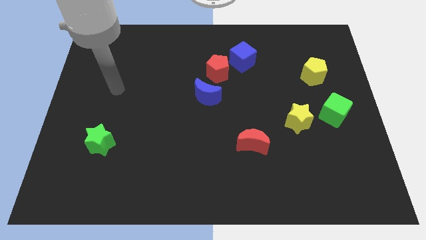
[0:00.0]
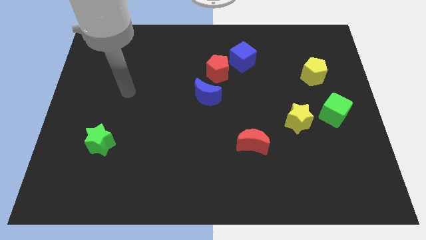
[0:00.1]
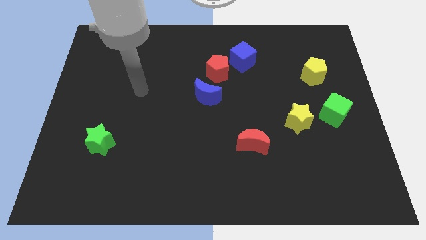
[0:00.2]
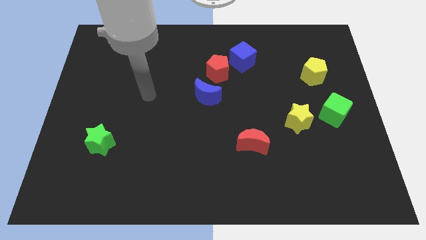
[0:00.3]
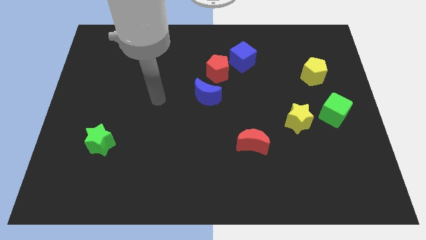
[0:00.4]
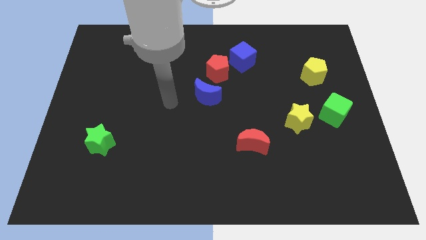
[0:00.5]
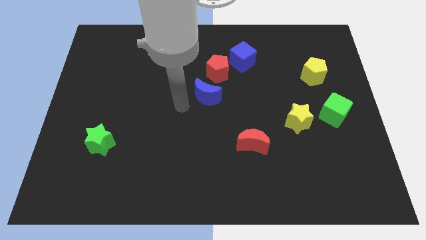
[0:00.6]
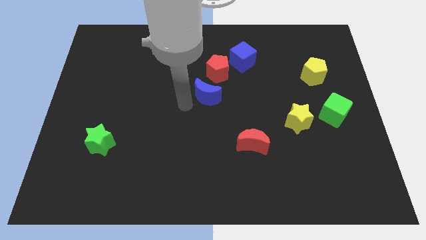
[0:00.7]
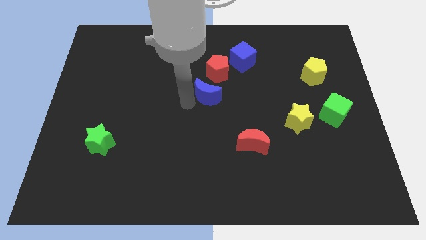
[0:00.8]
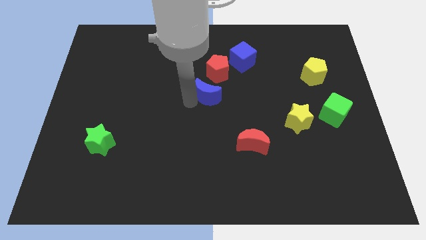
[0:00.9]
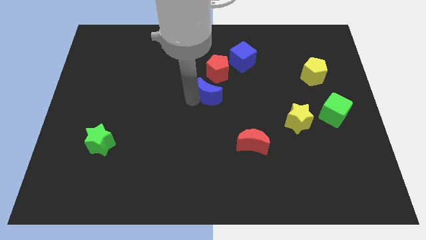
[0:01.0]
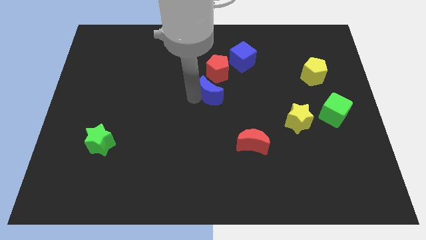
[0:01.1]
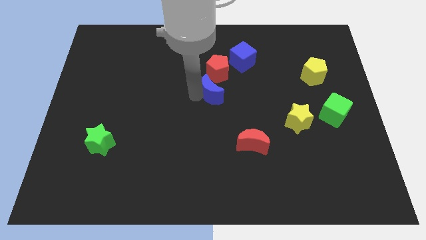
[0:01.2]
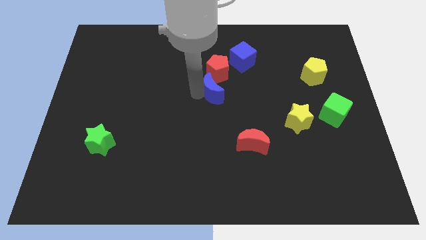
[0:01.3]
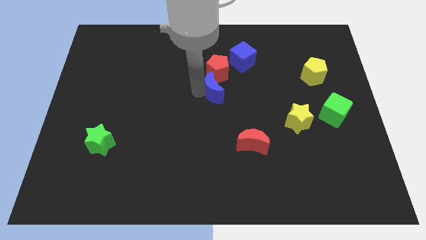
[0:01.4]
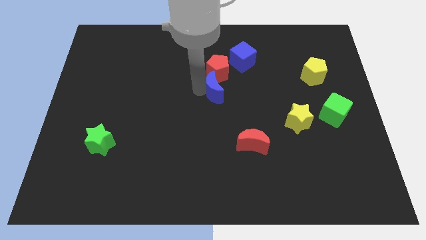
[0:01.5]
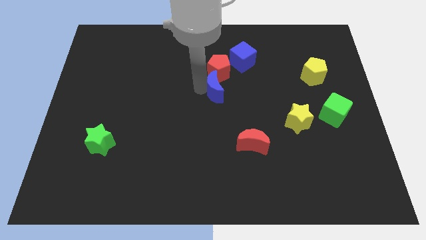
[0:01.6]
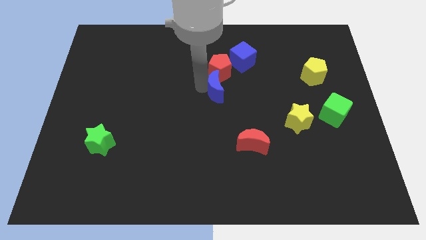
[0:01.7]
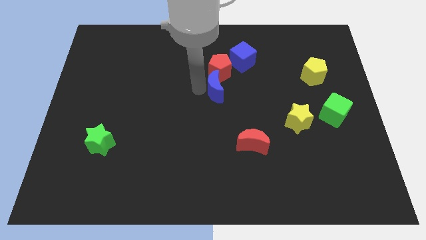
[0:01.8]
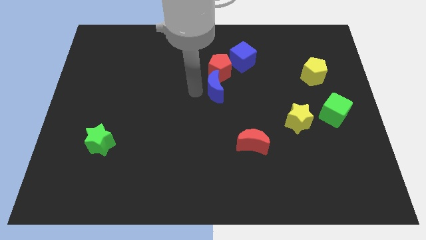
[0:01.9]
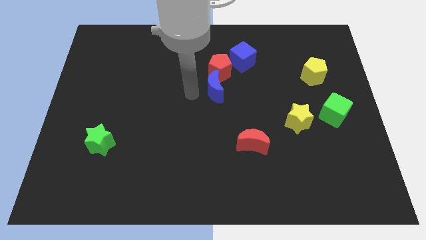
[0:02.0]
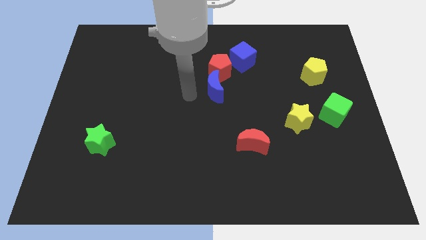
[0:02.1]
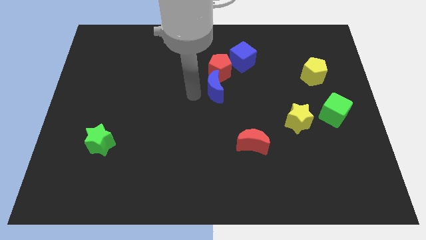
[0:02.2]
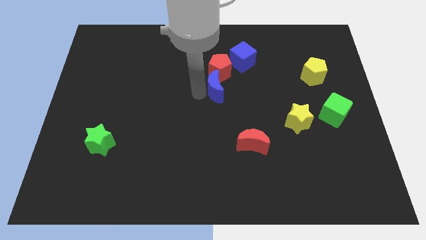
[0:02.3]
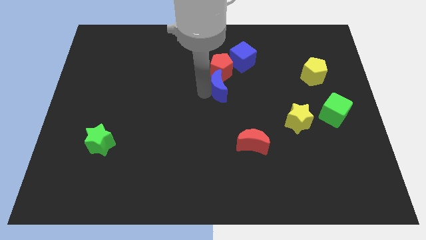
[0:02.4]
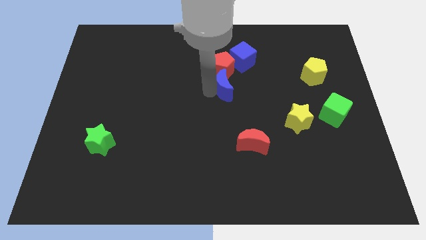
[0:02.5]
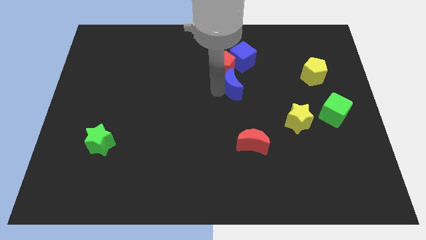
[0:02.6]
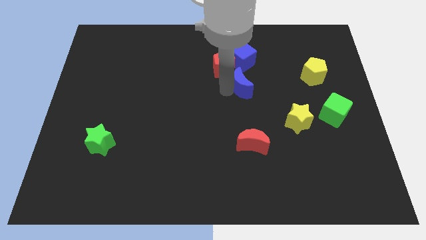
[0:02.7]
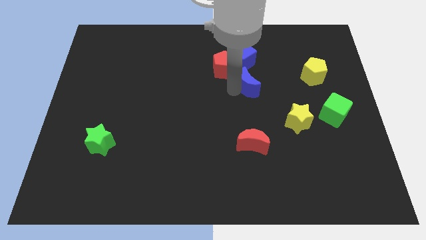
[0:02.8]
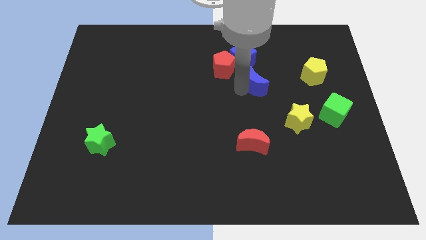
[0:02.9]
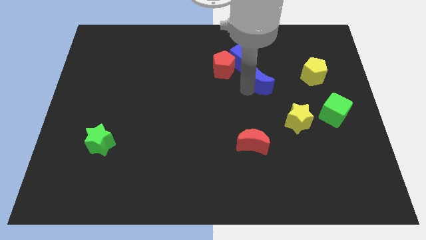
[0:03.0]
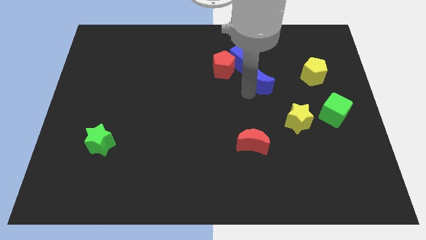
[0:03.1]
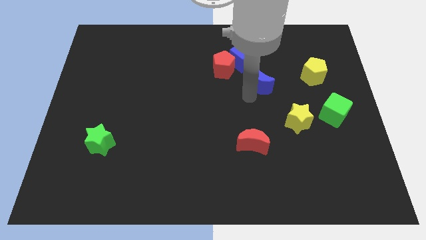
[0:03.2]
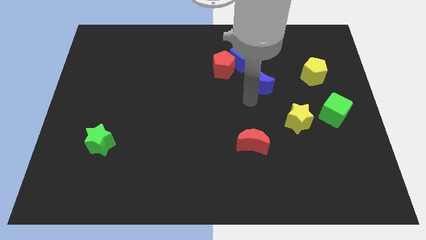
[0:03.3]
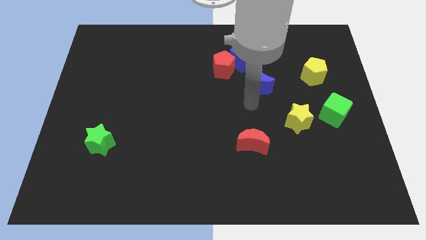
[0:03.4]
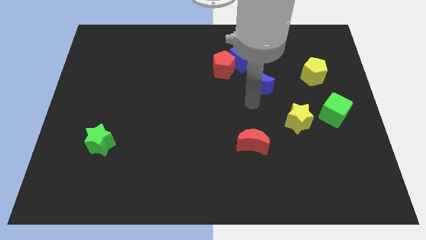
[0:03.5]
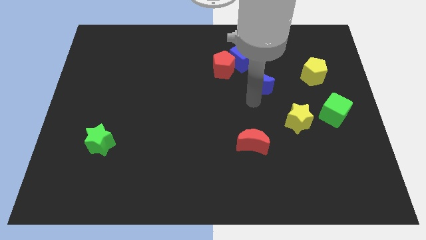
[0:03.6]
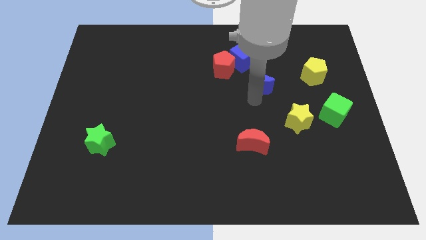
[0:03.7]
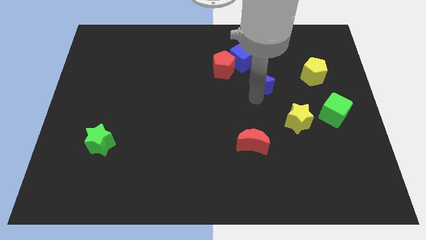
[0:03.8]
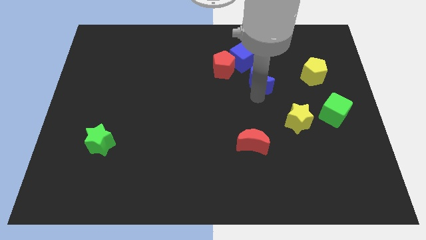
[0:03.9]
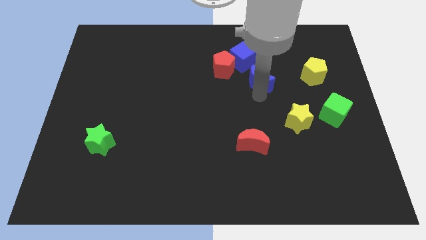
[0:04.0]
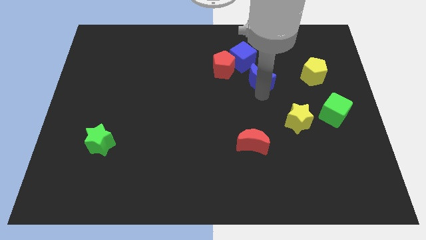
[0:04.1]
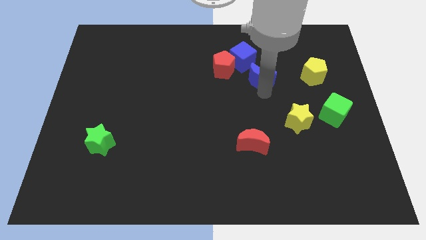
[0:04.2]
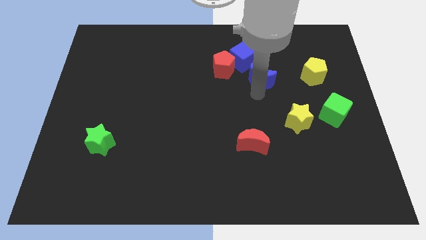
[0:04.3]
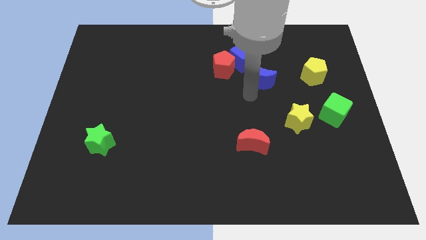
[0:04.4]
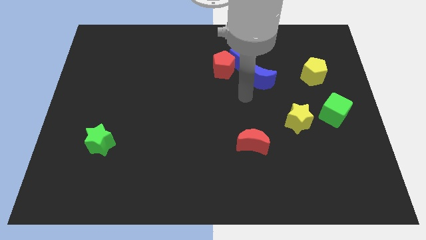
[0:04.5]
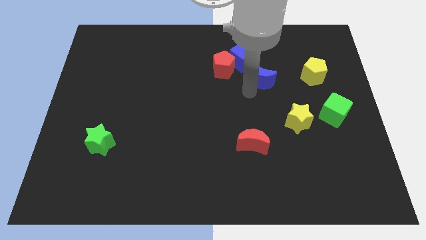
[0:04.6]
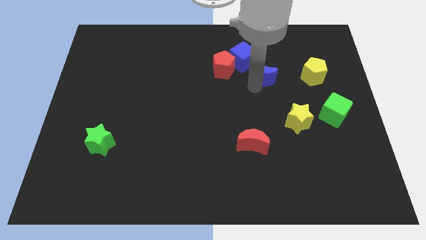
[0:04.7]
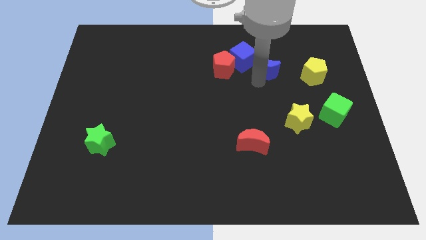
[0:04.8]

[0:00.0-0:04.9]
push the blue moon just right of the blue cube

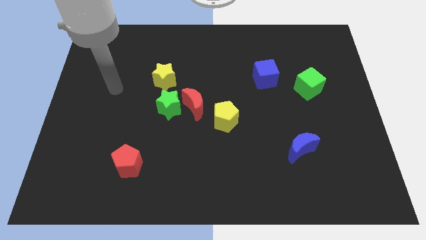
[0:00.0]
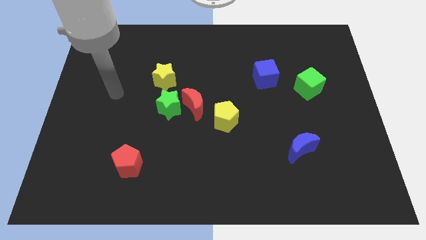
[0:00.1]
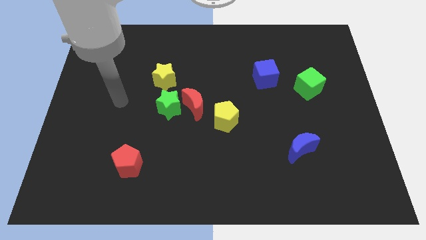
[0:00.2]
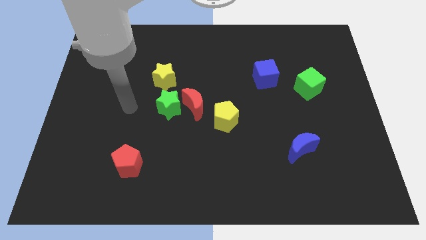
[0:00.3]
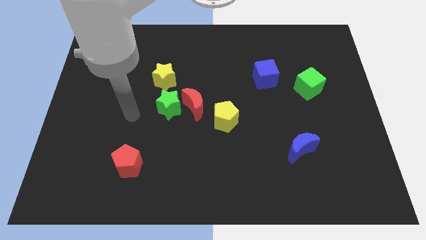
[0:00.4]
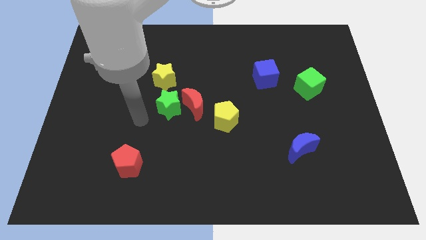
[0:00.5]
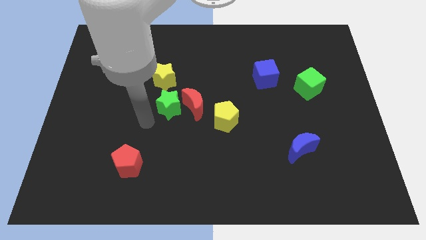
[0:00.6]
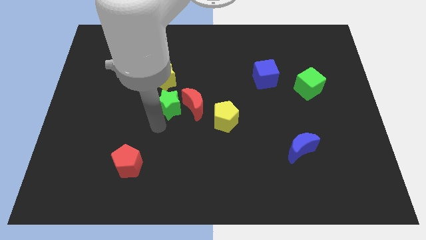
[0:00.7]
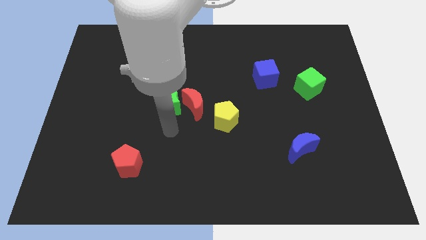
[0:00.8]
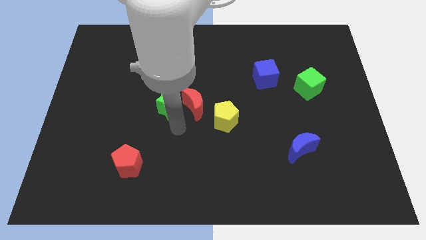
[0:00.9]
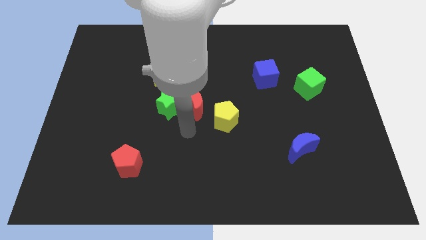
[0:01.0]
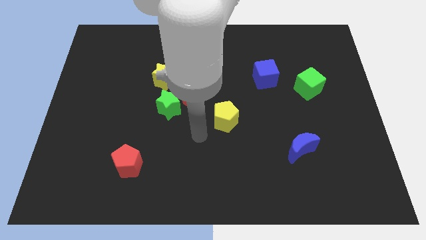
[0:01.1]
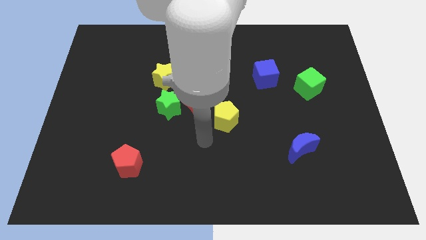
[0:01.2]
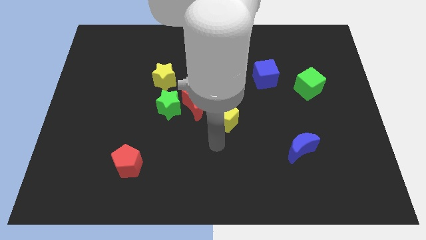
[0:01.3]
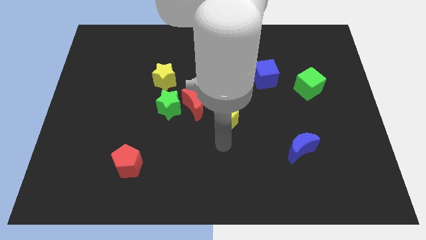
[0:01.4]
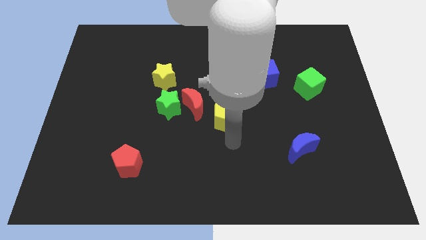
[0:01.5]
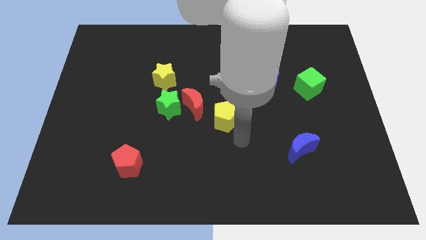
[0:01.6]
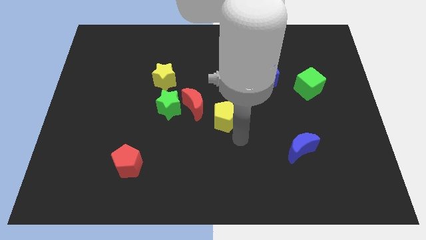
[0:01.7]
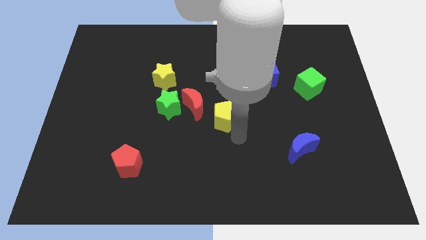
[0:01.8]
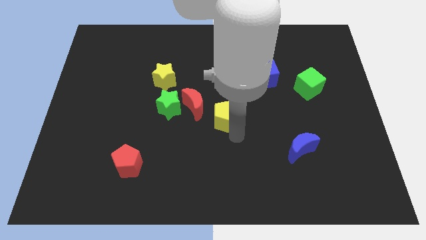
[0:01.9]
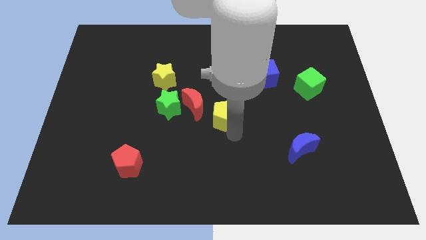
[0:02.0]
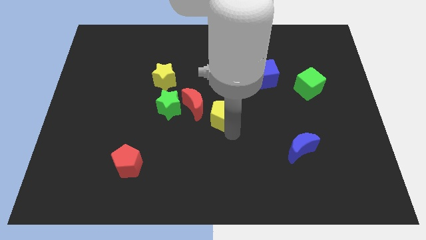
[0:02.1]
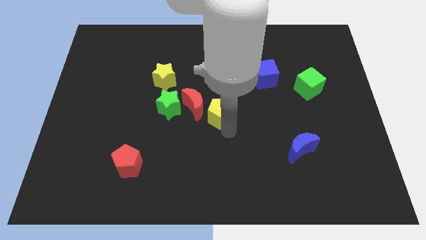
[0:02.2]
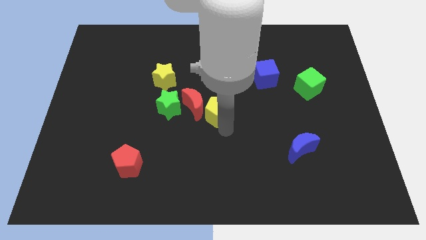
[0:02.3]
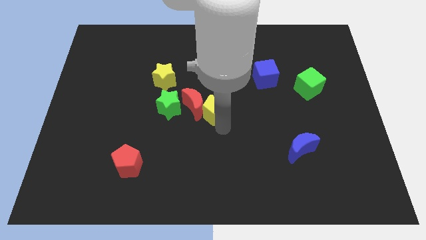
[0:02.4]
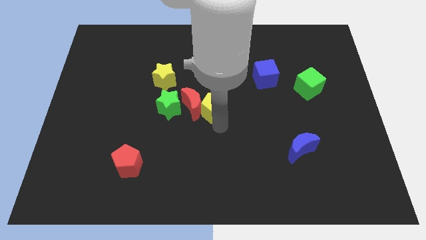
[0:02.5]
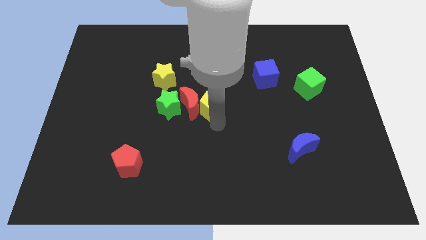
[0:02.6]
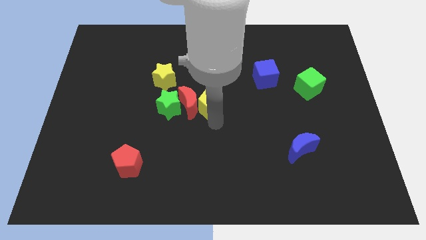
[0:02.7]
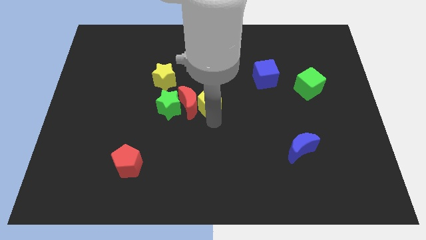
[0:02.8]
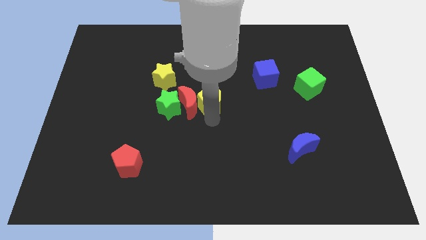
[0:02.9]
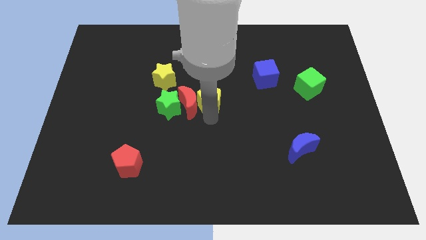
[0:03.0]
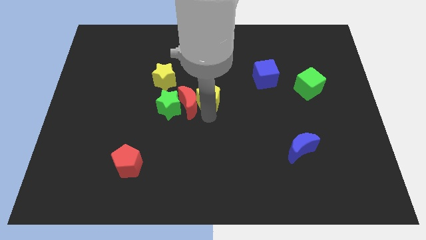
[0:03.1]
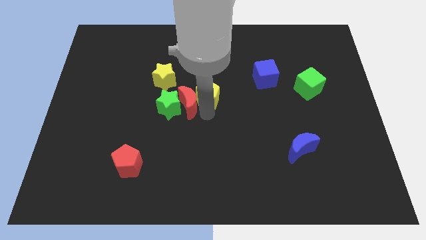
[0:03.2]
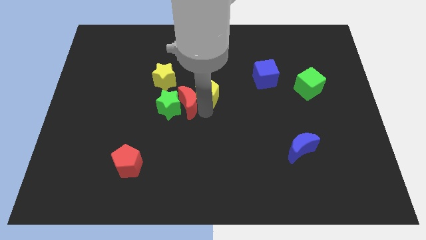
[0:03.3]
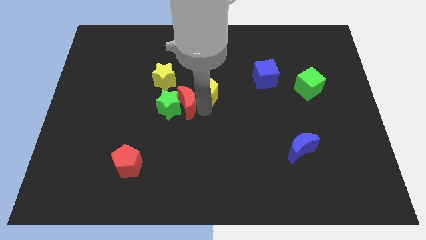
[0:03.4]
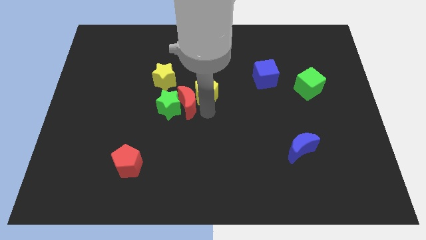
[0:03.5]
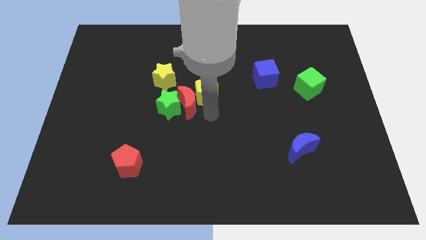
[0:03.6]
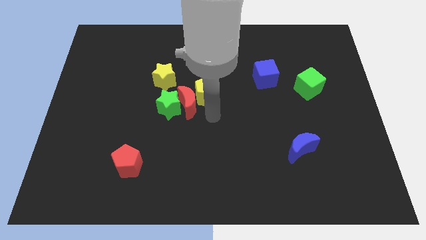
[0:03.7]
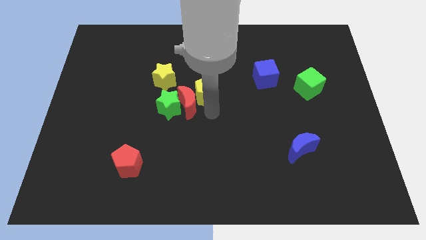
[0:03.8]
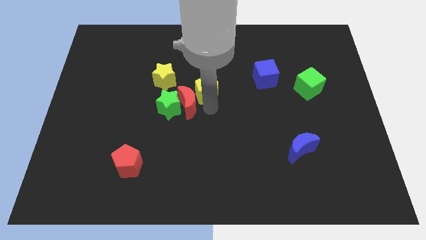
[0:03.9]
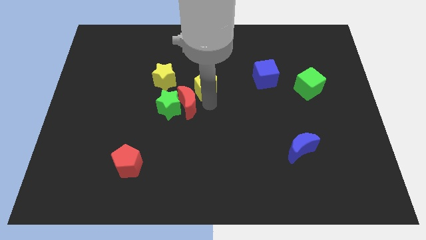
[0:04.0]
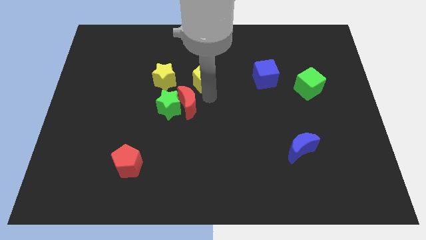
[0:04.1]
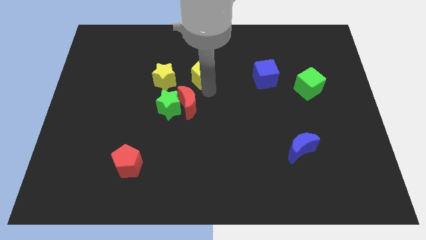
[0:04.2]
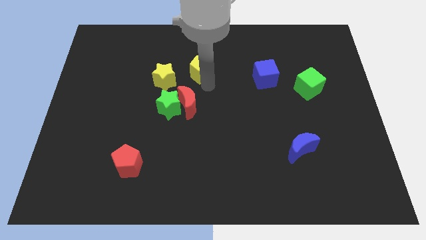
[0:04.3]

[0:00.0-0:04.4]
slide the yellow pentagon diagonally up and to the right of the yellow star
